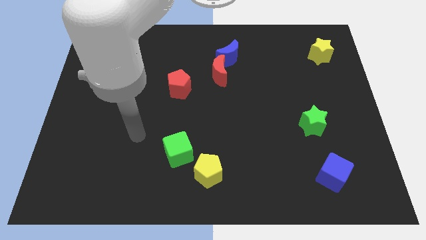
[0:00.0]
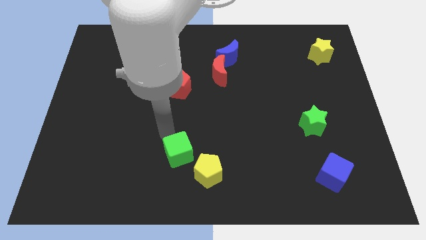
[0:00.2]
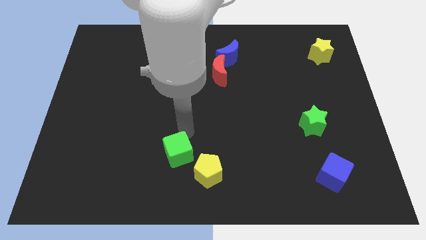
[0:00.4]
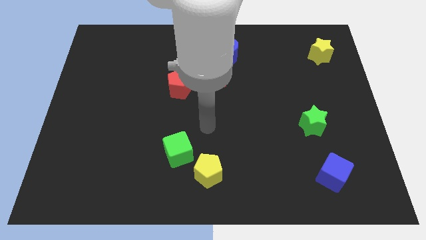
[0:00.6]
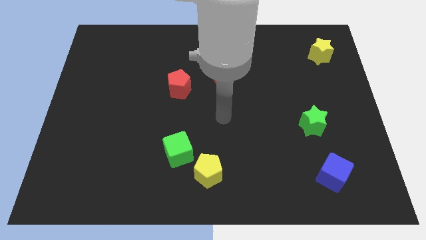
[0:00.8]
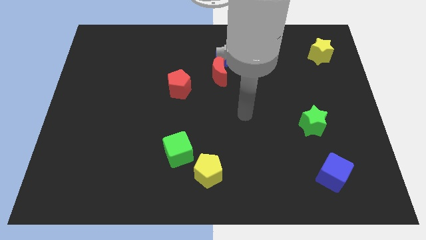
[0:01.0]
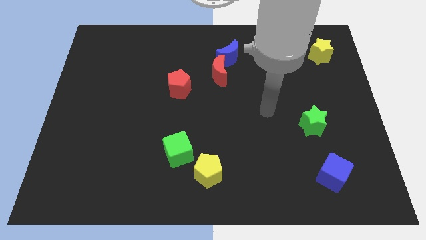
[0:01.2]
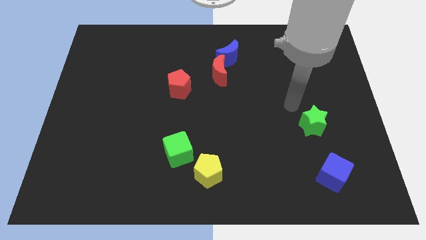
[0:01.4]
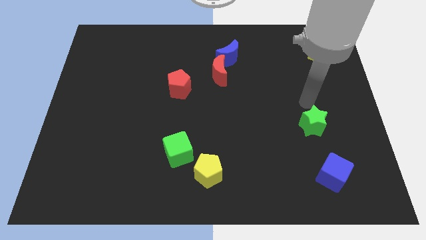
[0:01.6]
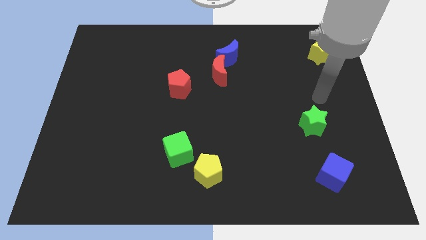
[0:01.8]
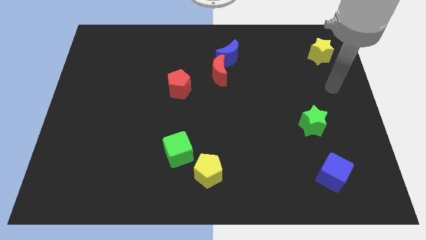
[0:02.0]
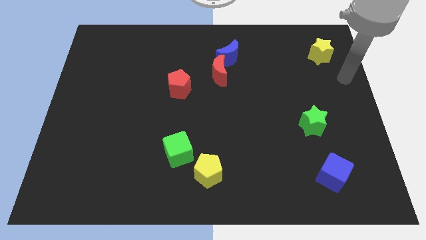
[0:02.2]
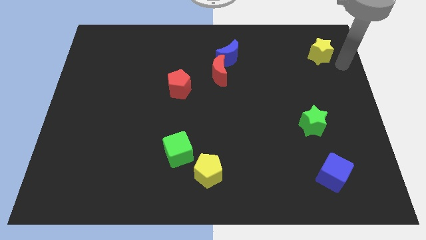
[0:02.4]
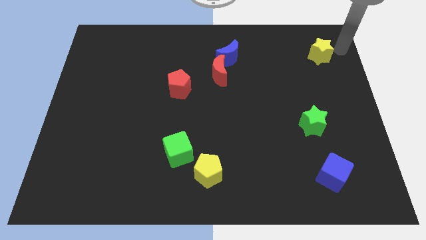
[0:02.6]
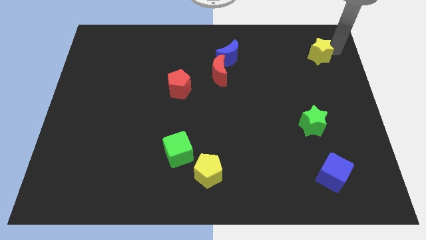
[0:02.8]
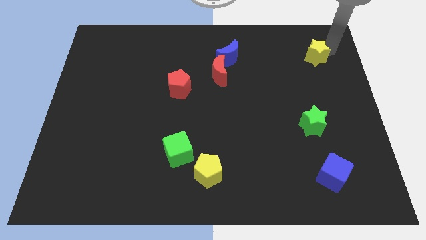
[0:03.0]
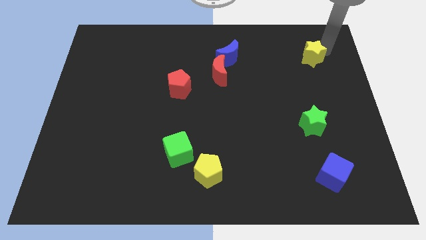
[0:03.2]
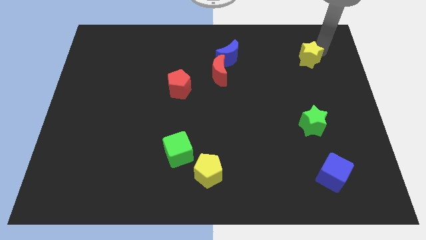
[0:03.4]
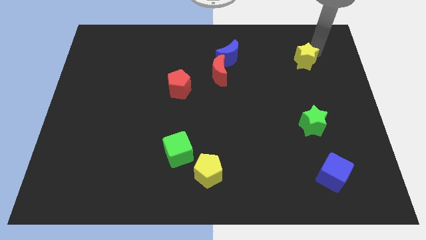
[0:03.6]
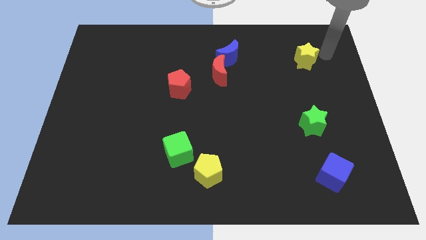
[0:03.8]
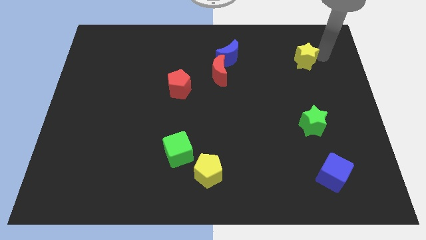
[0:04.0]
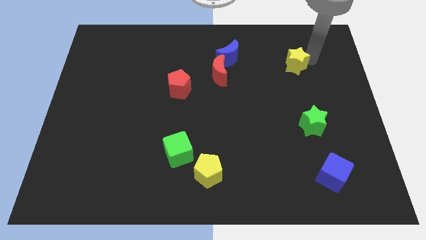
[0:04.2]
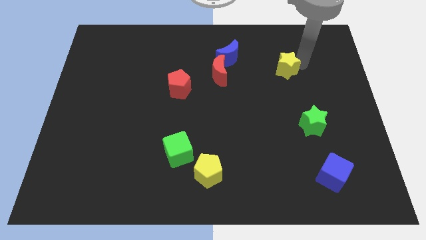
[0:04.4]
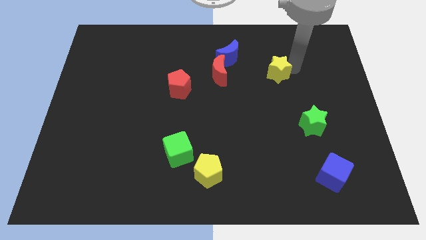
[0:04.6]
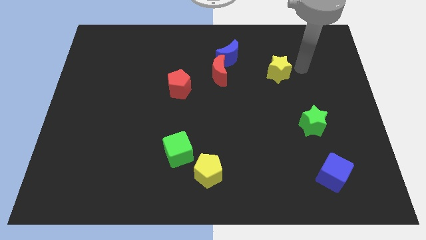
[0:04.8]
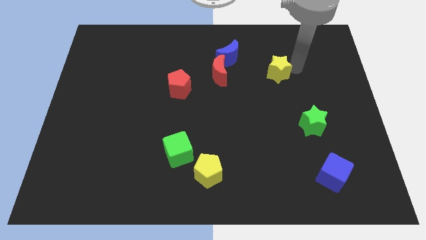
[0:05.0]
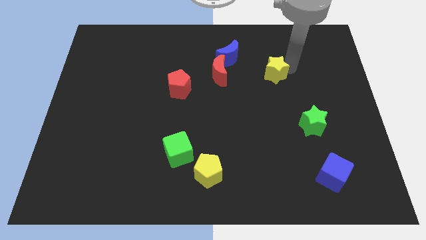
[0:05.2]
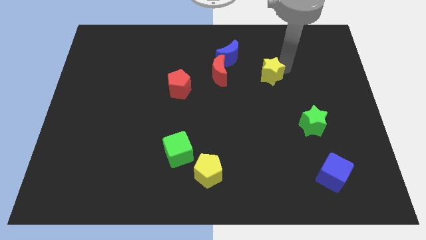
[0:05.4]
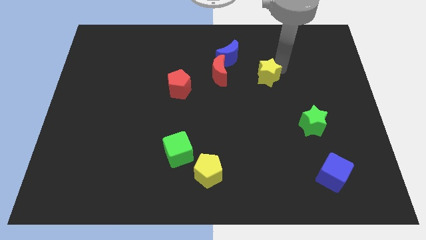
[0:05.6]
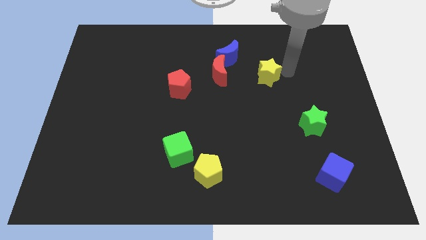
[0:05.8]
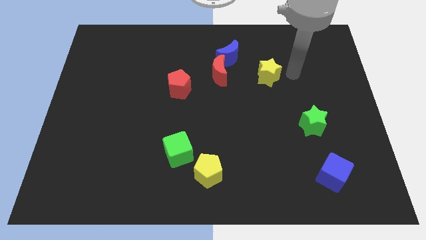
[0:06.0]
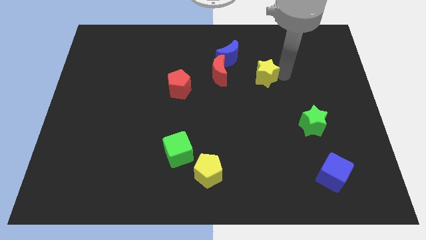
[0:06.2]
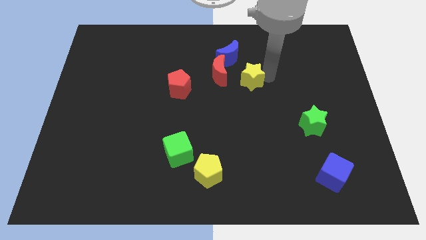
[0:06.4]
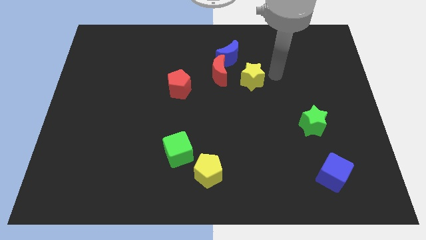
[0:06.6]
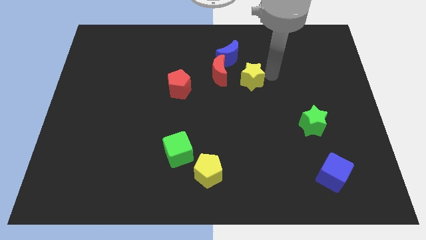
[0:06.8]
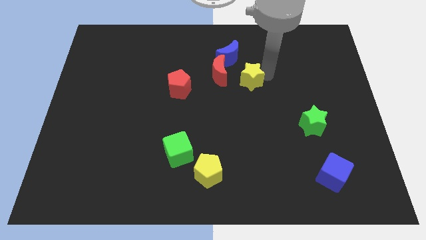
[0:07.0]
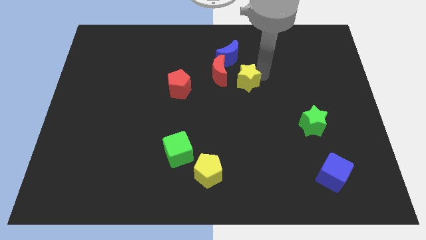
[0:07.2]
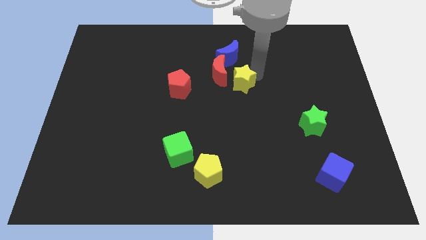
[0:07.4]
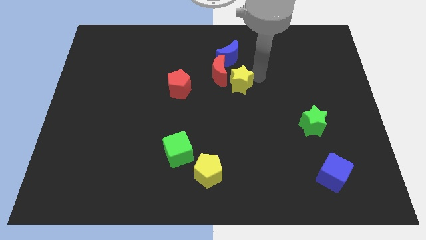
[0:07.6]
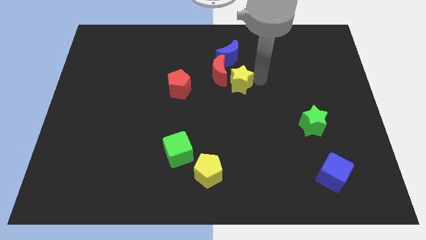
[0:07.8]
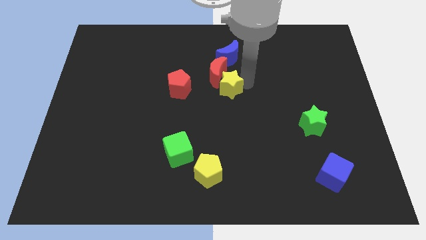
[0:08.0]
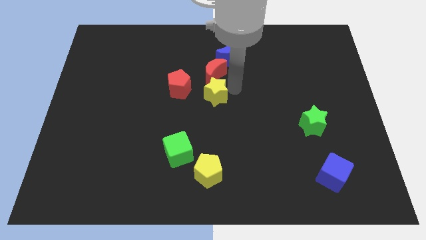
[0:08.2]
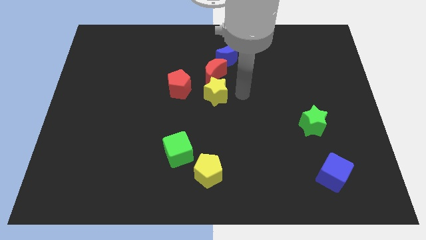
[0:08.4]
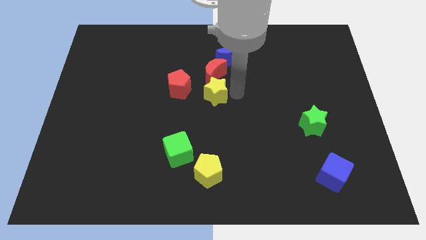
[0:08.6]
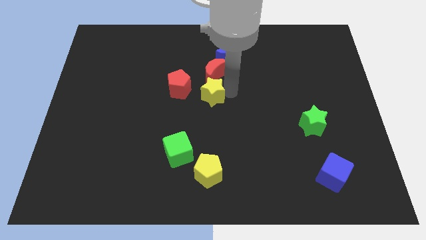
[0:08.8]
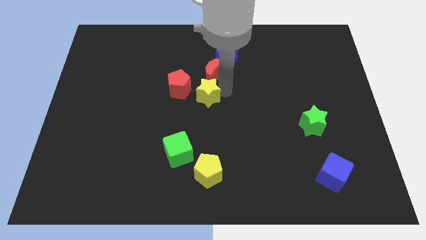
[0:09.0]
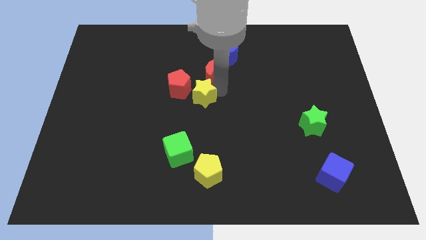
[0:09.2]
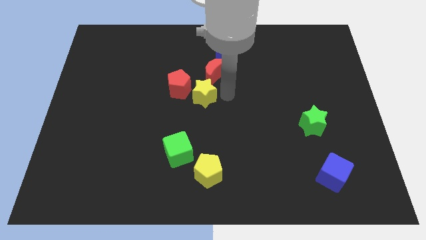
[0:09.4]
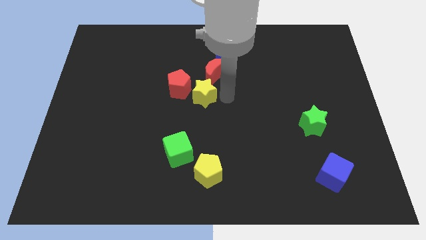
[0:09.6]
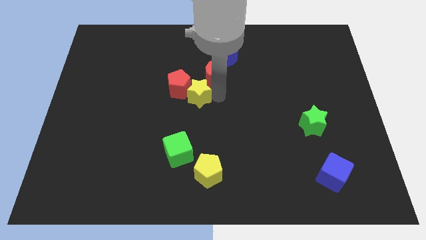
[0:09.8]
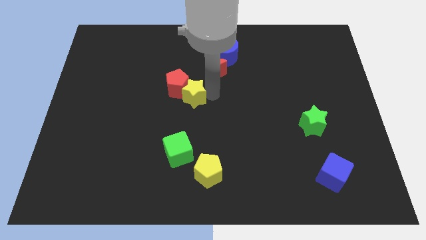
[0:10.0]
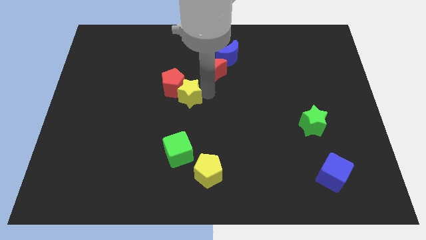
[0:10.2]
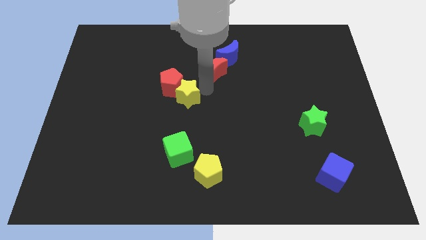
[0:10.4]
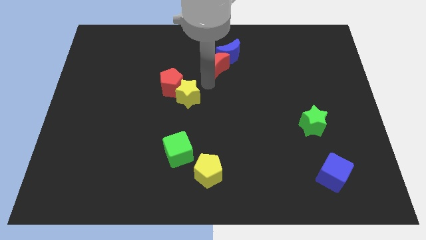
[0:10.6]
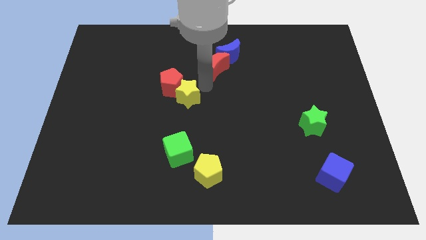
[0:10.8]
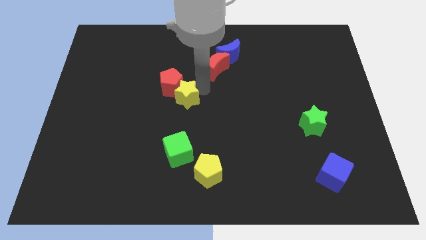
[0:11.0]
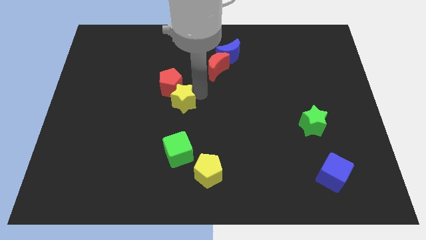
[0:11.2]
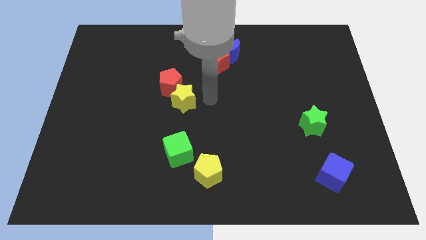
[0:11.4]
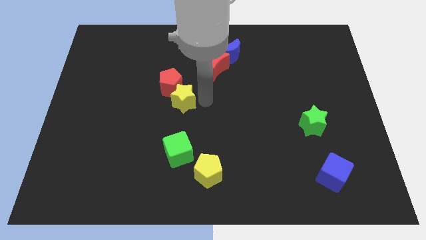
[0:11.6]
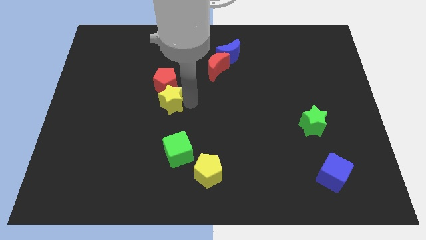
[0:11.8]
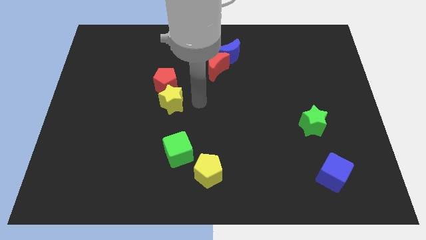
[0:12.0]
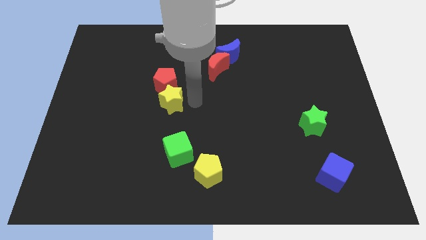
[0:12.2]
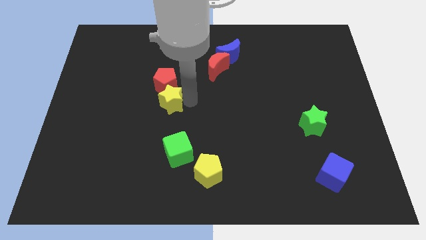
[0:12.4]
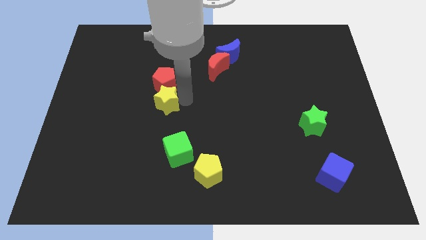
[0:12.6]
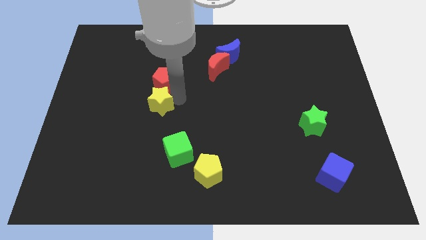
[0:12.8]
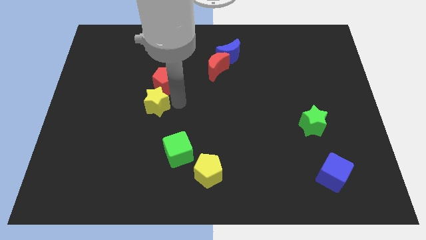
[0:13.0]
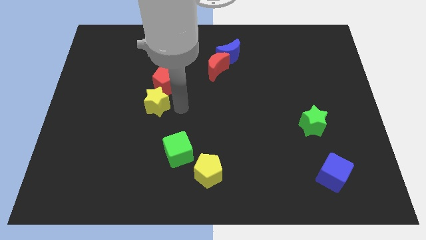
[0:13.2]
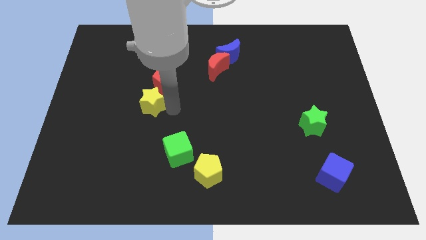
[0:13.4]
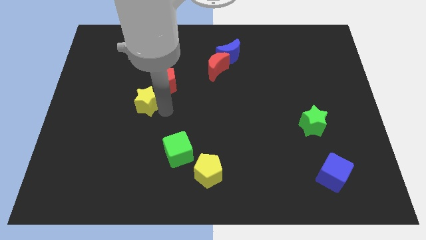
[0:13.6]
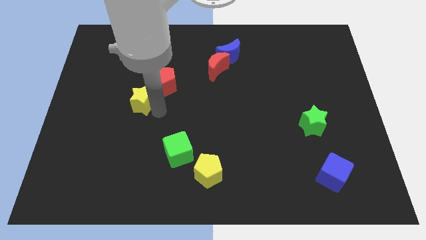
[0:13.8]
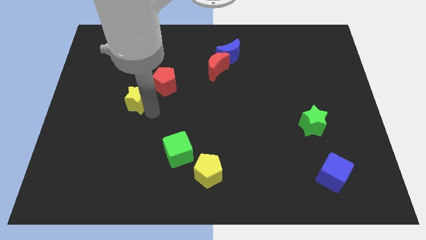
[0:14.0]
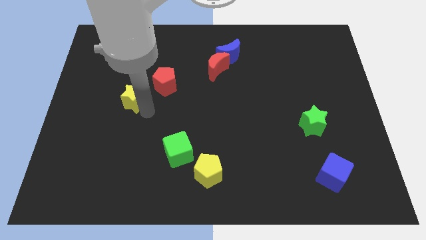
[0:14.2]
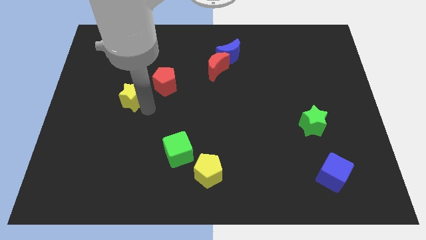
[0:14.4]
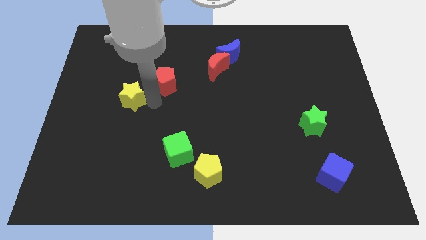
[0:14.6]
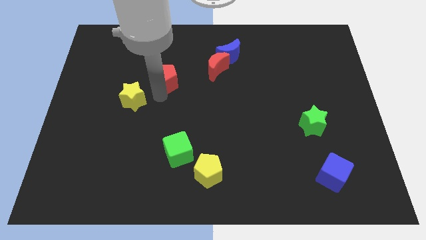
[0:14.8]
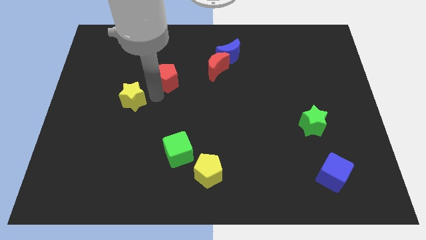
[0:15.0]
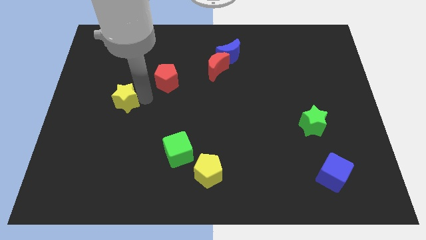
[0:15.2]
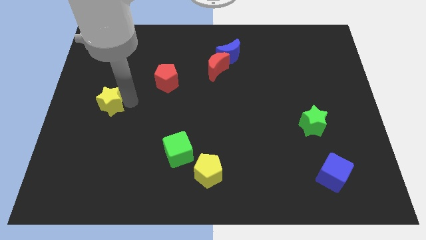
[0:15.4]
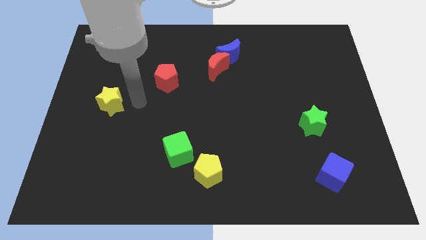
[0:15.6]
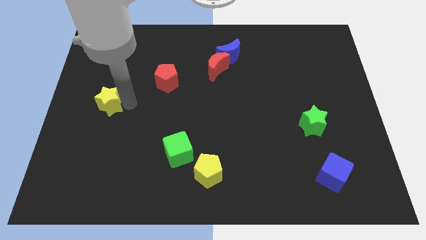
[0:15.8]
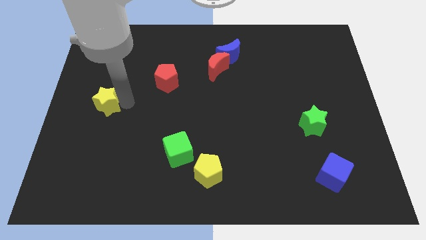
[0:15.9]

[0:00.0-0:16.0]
put the yellow star to the left side of the board
